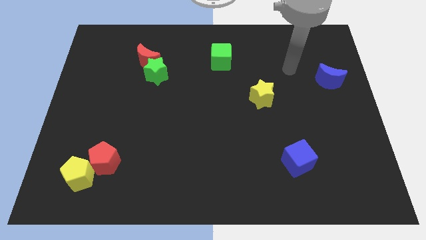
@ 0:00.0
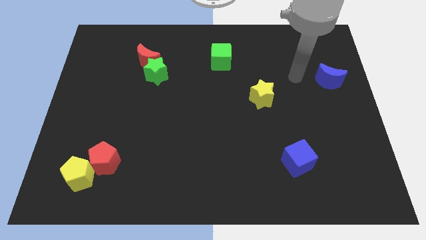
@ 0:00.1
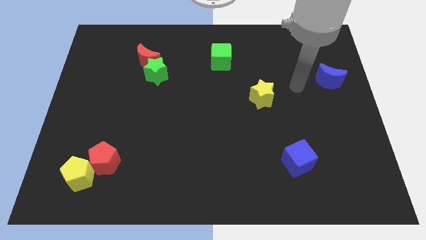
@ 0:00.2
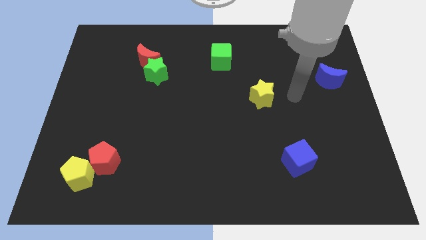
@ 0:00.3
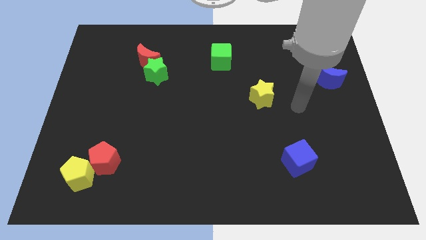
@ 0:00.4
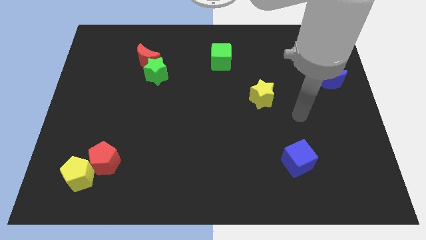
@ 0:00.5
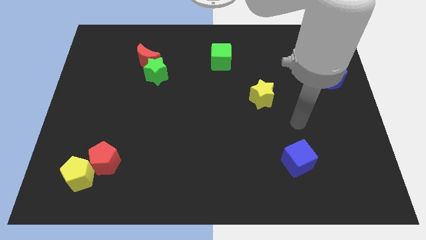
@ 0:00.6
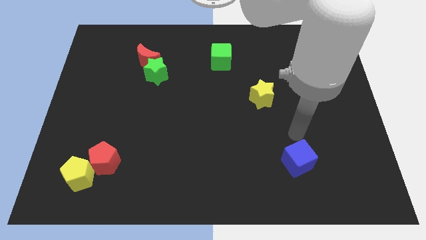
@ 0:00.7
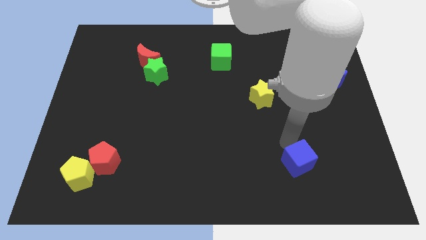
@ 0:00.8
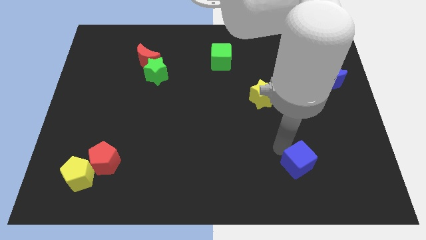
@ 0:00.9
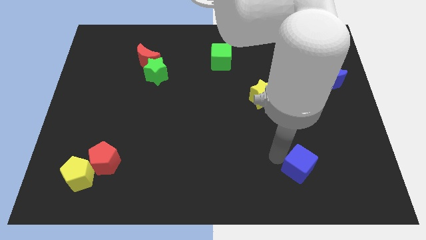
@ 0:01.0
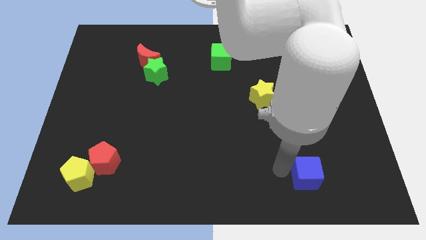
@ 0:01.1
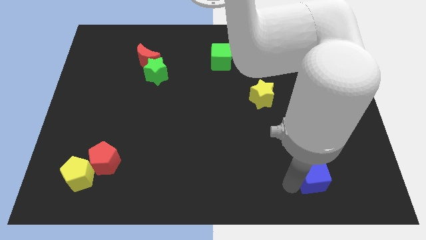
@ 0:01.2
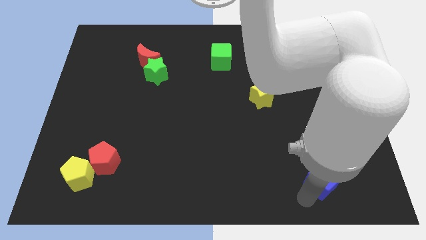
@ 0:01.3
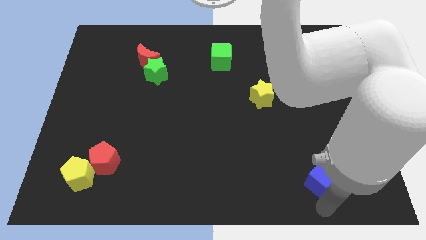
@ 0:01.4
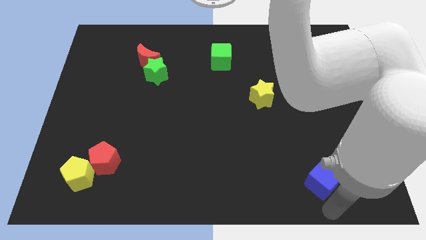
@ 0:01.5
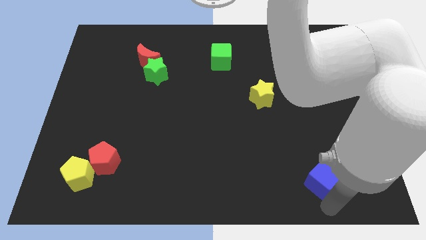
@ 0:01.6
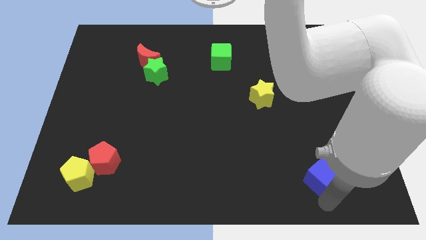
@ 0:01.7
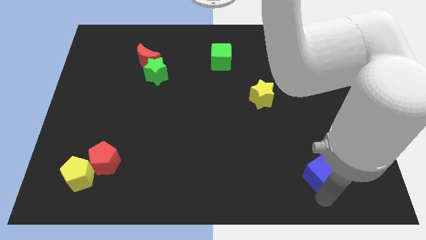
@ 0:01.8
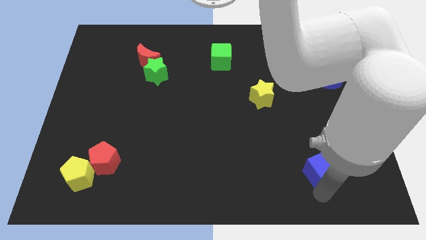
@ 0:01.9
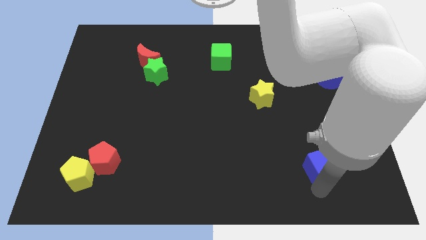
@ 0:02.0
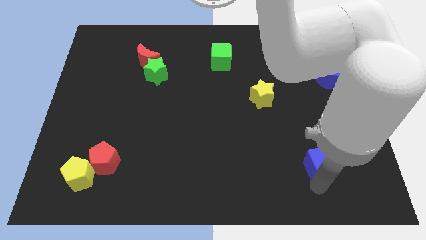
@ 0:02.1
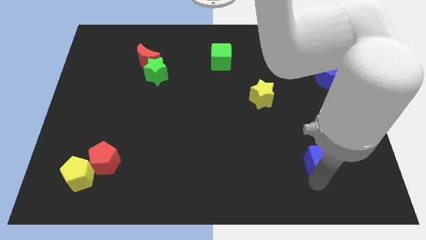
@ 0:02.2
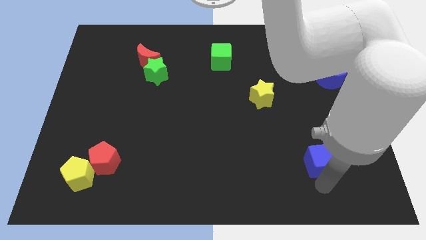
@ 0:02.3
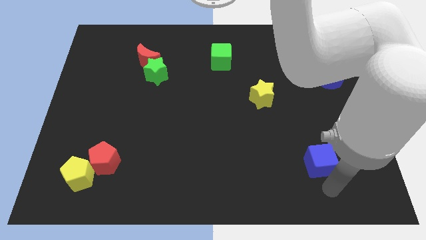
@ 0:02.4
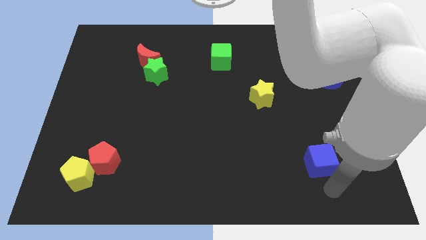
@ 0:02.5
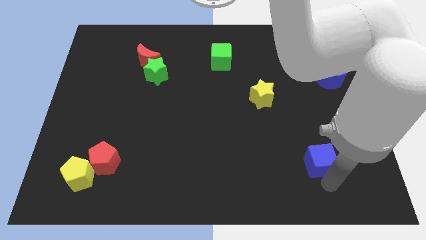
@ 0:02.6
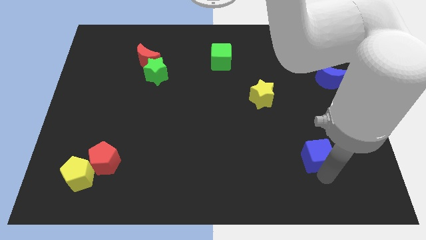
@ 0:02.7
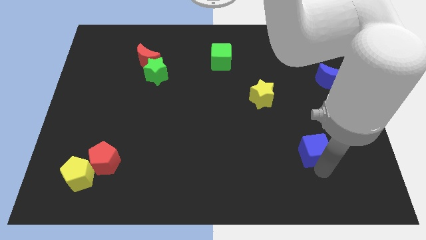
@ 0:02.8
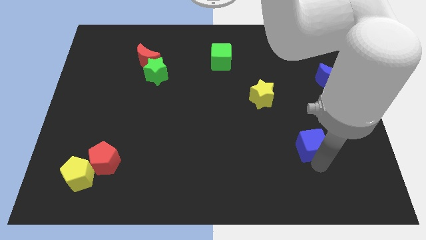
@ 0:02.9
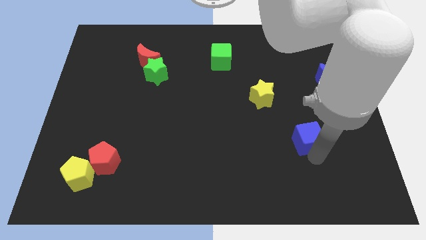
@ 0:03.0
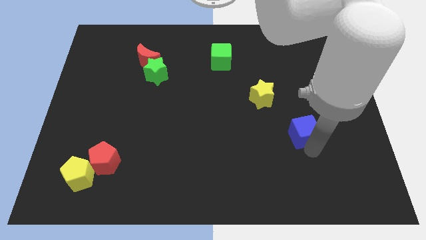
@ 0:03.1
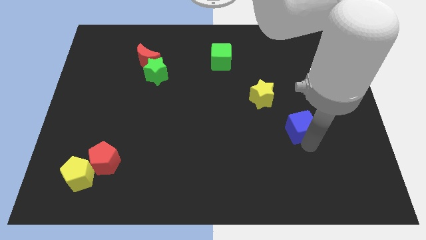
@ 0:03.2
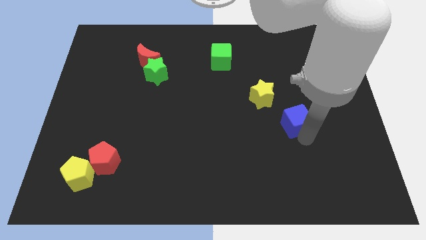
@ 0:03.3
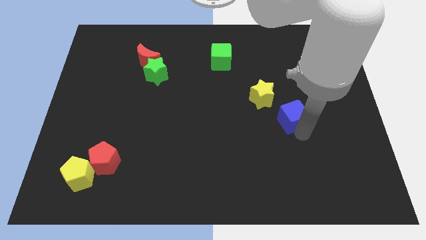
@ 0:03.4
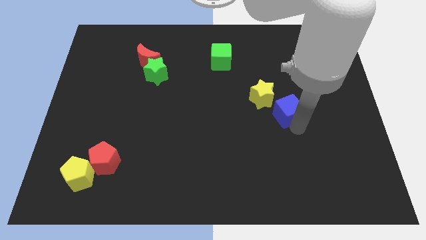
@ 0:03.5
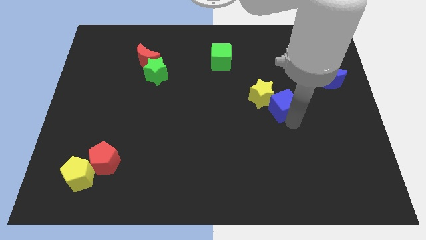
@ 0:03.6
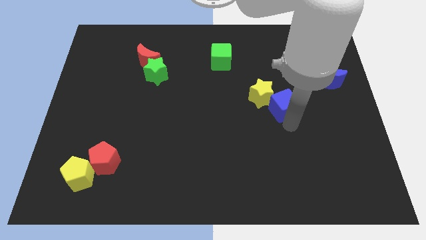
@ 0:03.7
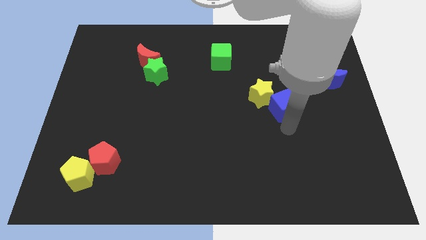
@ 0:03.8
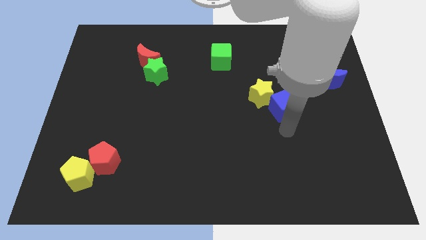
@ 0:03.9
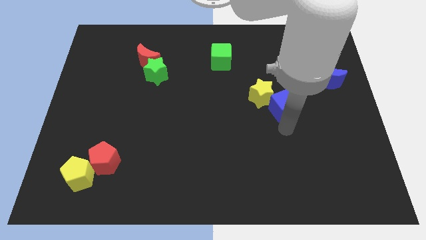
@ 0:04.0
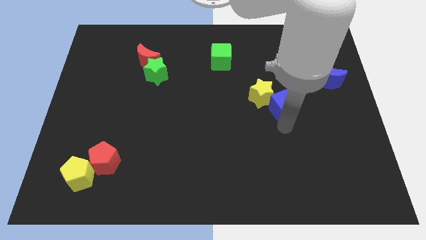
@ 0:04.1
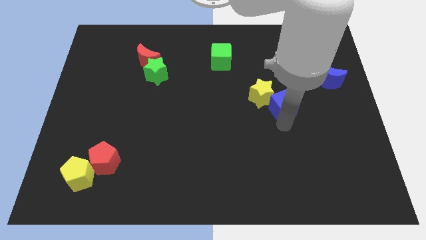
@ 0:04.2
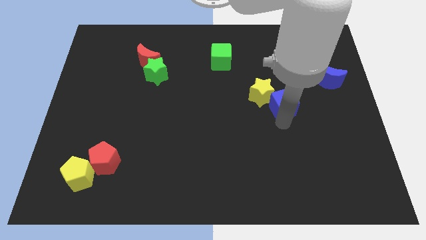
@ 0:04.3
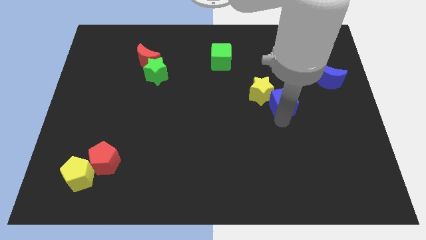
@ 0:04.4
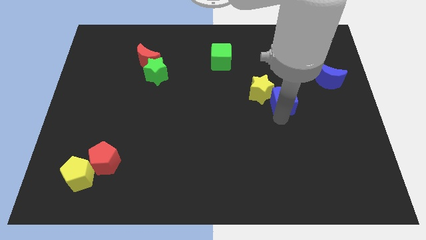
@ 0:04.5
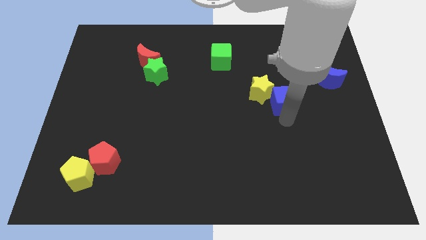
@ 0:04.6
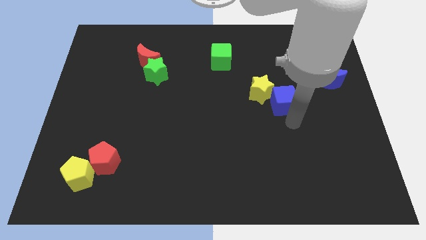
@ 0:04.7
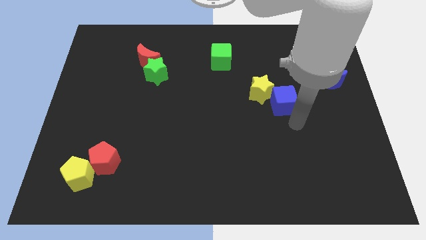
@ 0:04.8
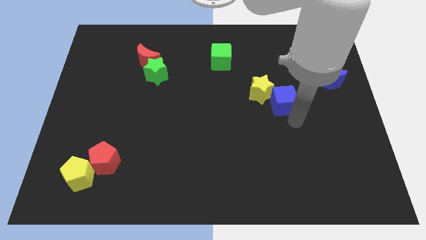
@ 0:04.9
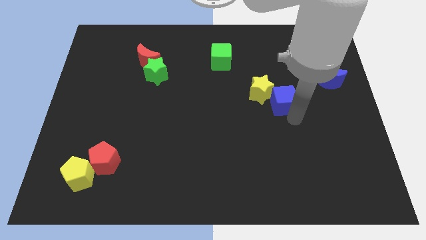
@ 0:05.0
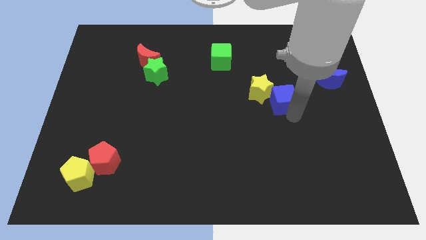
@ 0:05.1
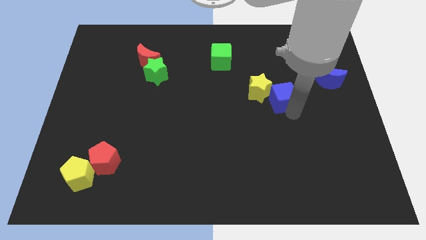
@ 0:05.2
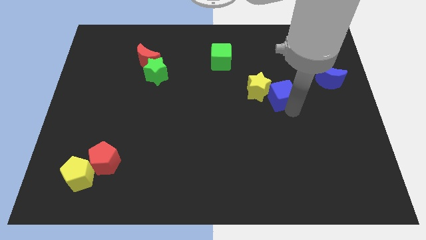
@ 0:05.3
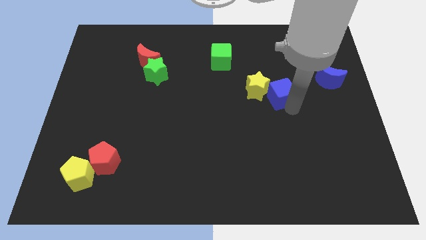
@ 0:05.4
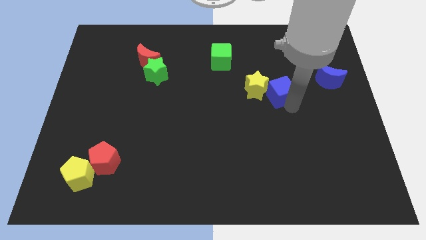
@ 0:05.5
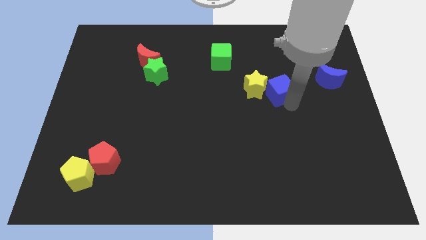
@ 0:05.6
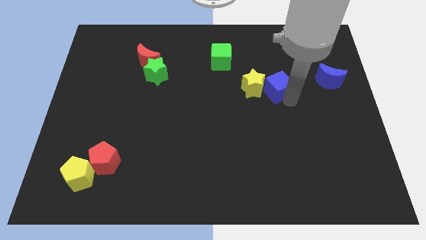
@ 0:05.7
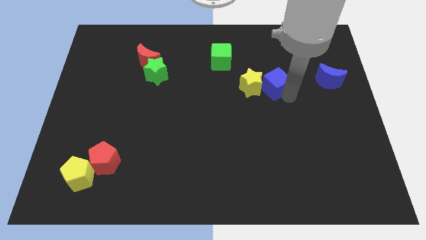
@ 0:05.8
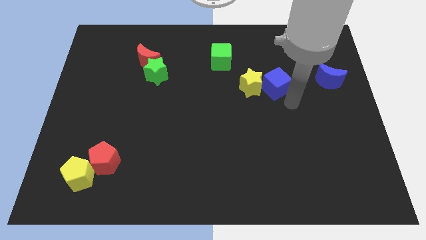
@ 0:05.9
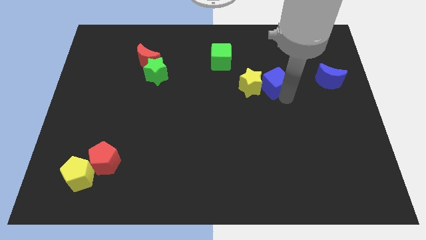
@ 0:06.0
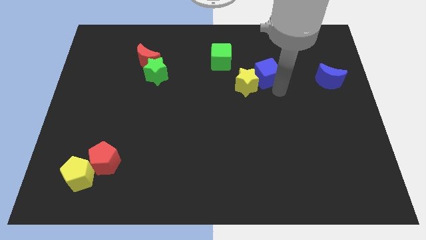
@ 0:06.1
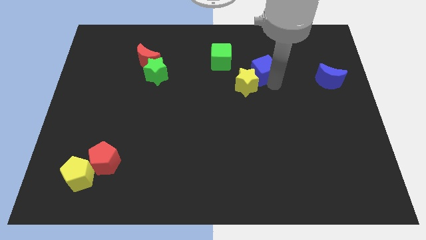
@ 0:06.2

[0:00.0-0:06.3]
slide the blue cube to the top of the yellow star

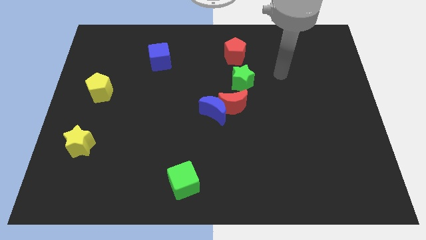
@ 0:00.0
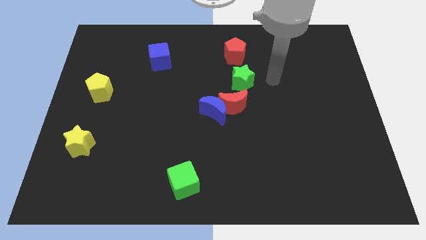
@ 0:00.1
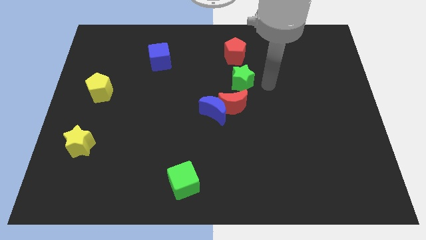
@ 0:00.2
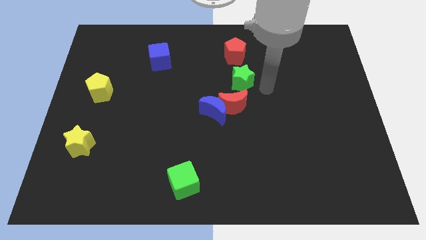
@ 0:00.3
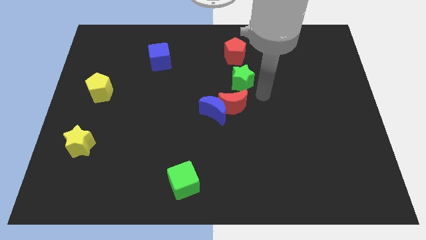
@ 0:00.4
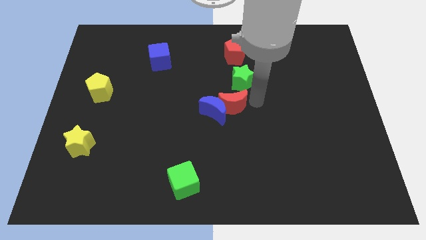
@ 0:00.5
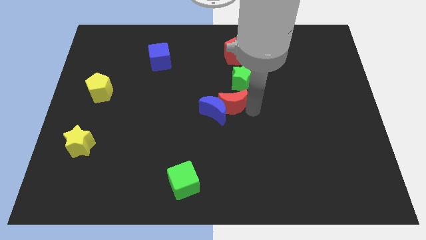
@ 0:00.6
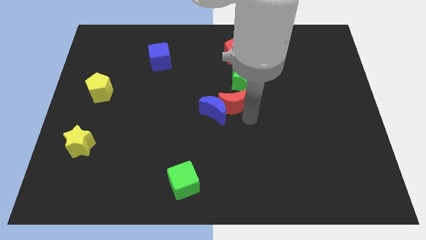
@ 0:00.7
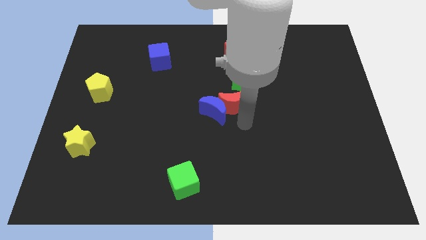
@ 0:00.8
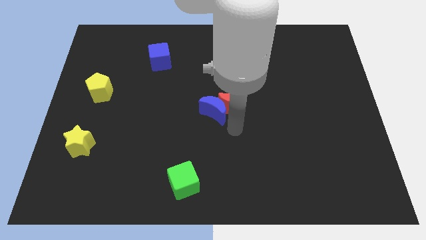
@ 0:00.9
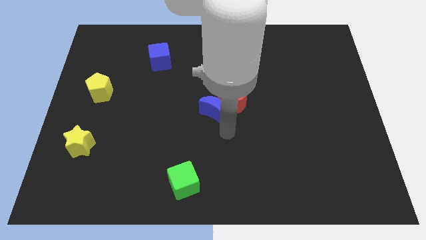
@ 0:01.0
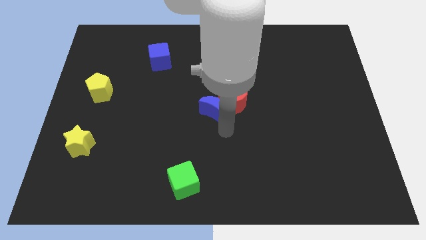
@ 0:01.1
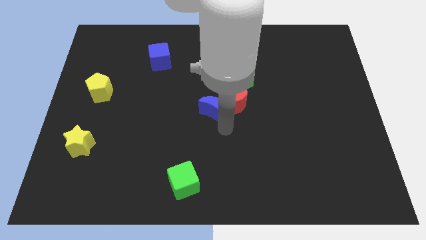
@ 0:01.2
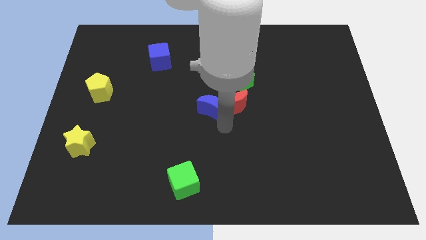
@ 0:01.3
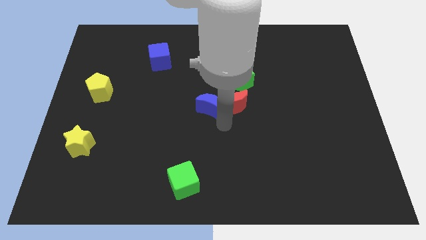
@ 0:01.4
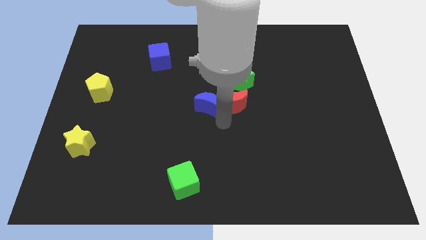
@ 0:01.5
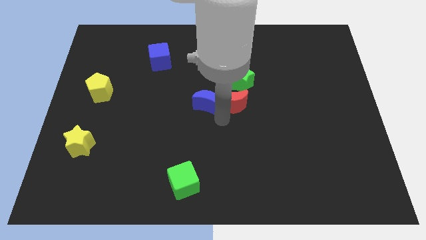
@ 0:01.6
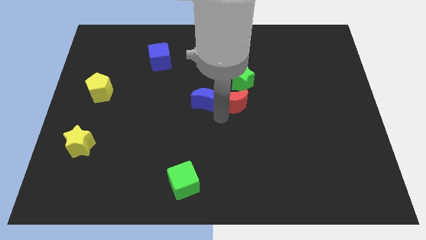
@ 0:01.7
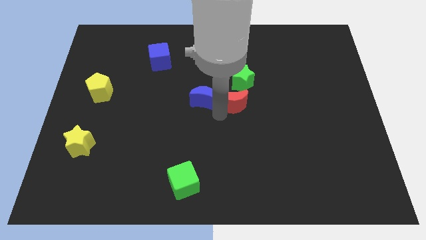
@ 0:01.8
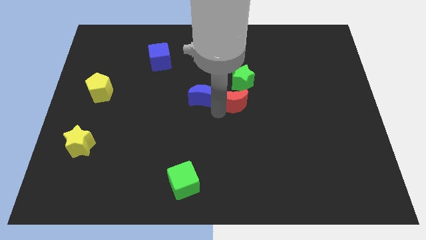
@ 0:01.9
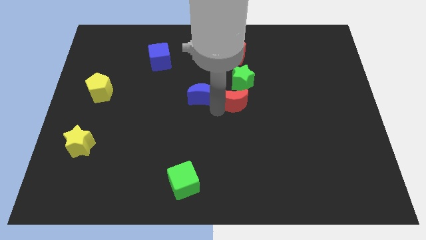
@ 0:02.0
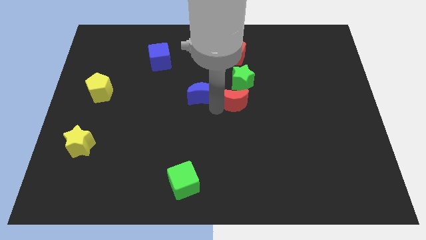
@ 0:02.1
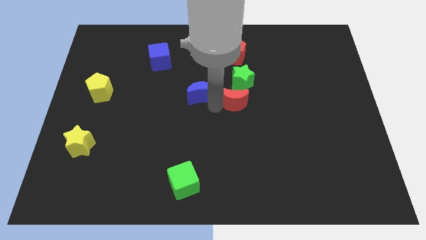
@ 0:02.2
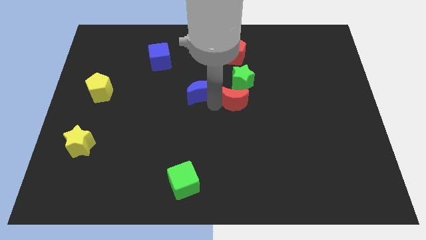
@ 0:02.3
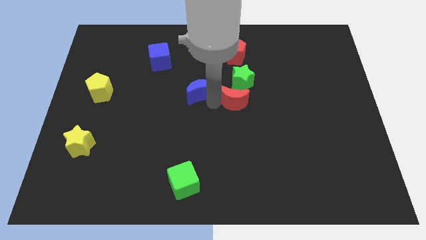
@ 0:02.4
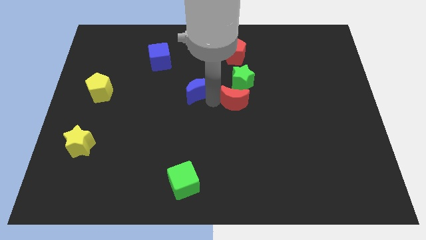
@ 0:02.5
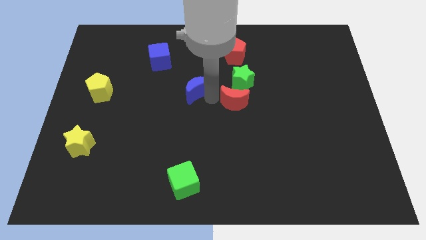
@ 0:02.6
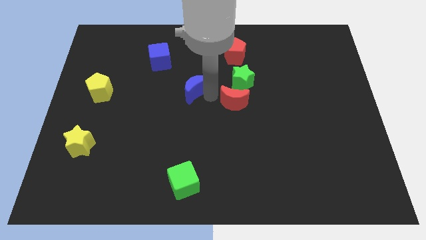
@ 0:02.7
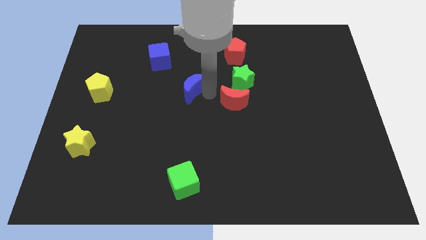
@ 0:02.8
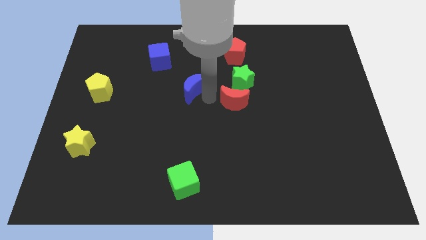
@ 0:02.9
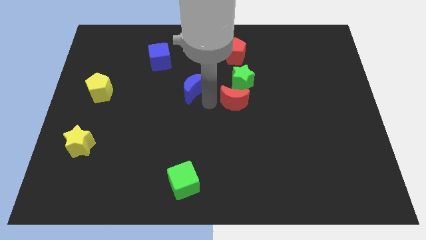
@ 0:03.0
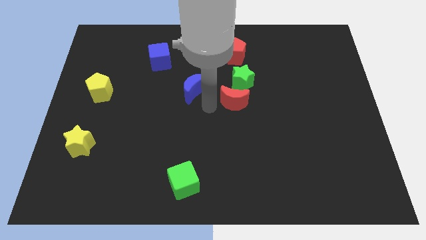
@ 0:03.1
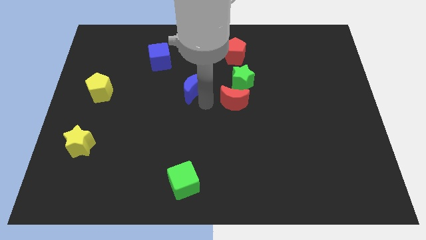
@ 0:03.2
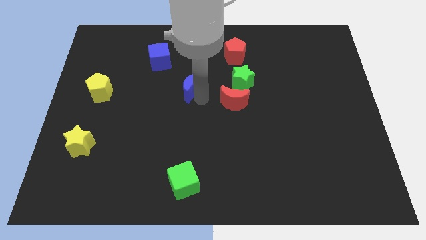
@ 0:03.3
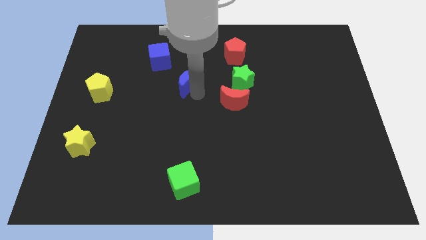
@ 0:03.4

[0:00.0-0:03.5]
put the blue moon diagonally down and to the right of the blue cube
